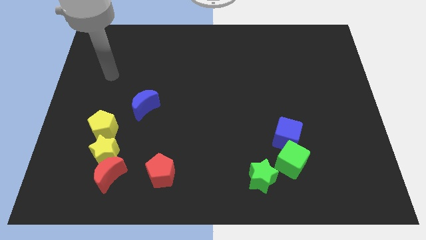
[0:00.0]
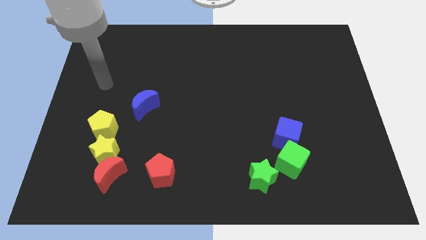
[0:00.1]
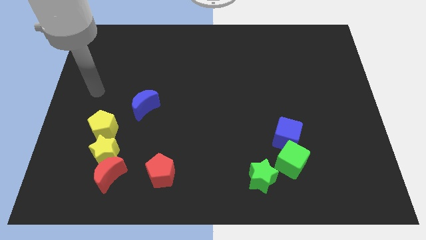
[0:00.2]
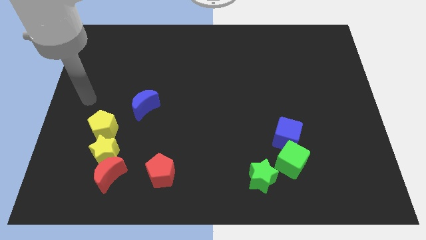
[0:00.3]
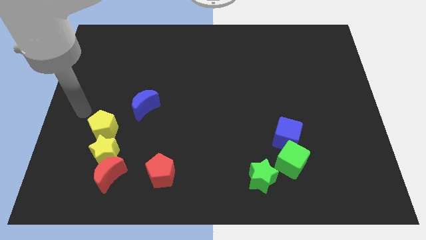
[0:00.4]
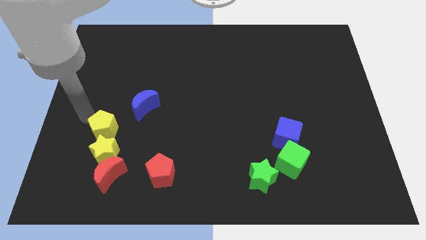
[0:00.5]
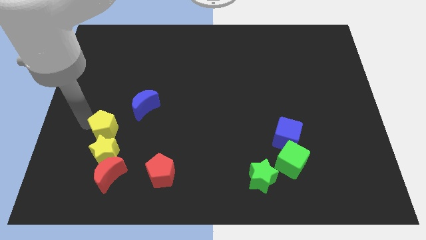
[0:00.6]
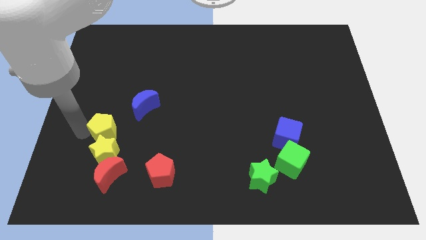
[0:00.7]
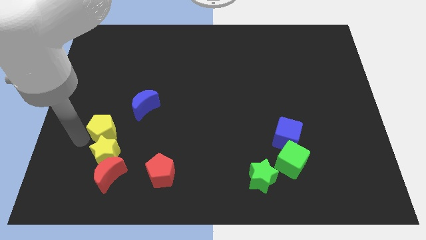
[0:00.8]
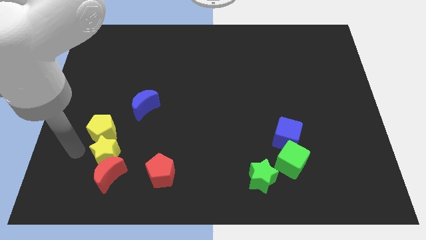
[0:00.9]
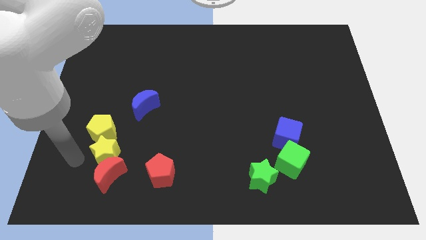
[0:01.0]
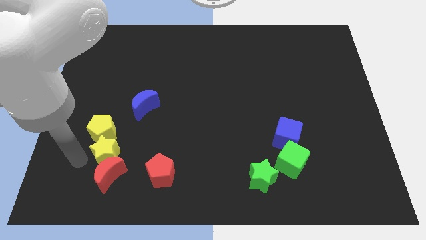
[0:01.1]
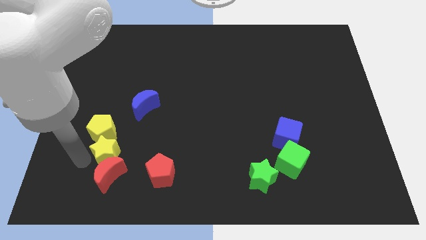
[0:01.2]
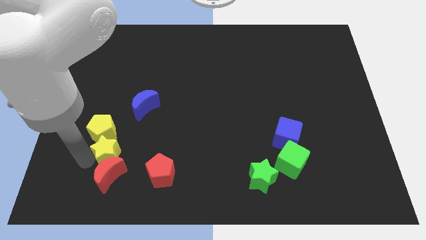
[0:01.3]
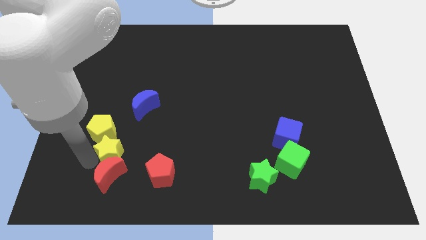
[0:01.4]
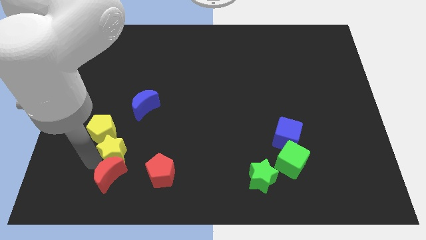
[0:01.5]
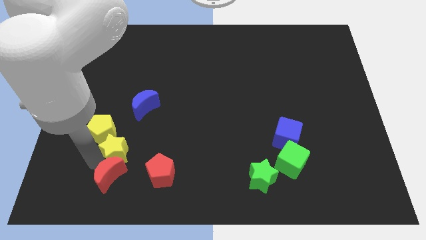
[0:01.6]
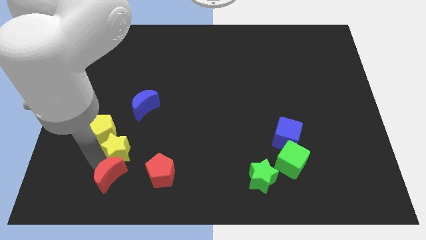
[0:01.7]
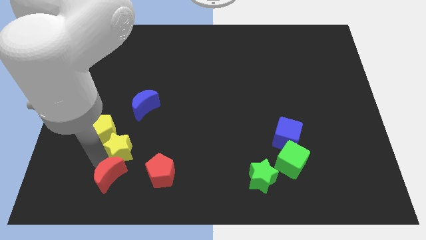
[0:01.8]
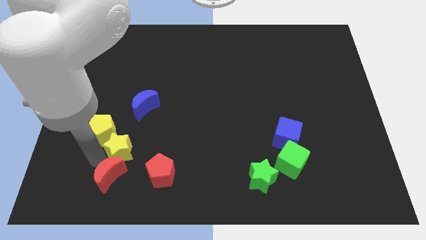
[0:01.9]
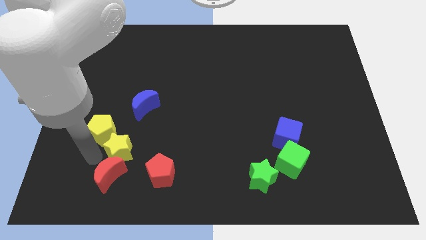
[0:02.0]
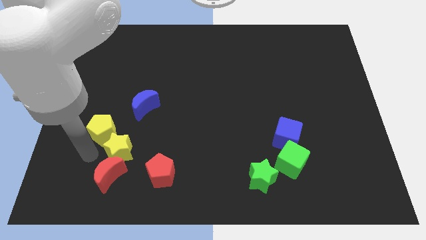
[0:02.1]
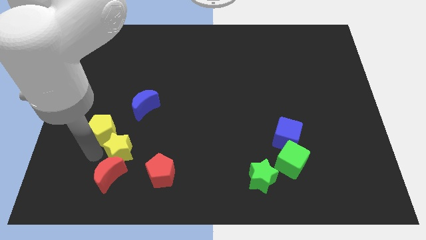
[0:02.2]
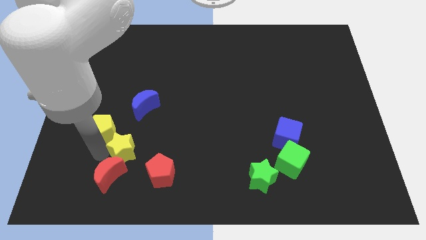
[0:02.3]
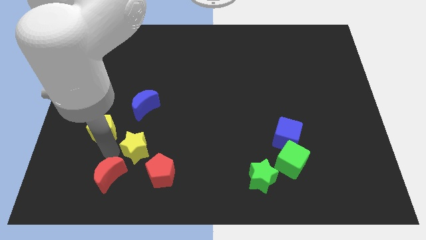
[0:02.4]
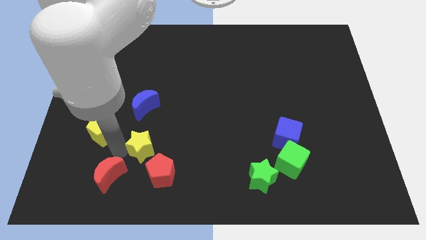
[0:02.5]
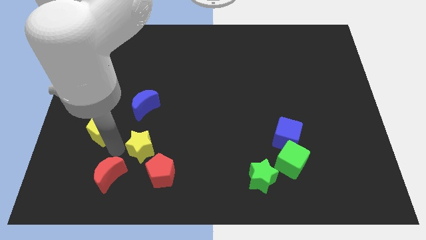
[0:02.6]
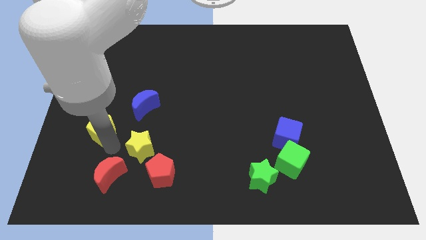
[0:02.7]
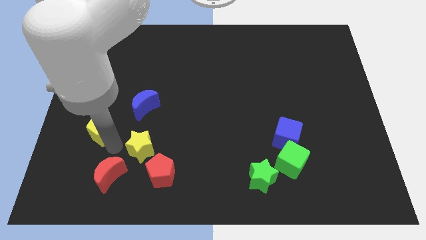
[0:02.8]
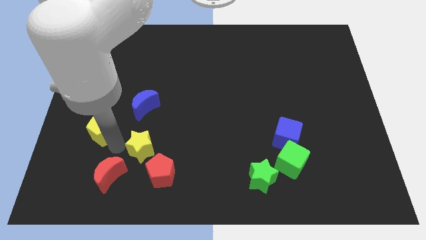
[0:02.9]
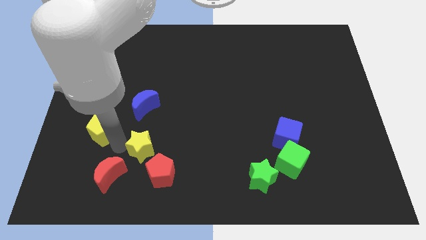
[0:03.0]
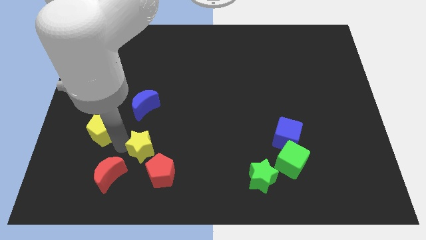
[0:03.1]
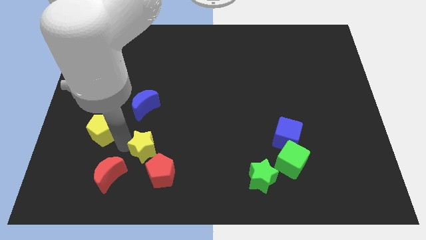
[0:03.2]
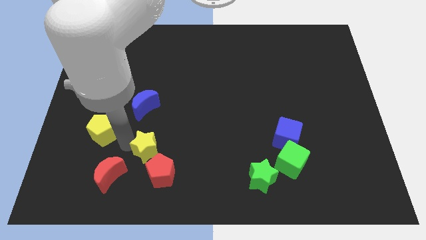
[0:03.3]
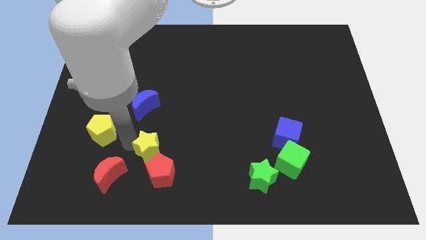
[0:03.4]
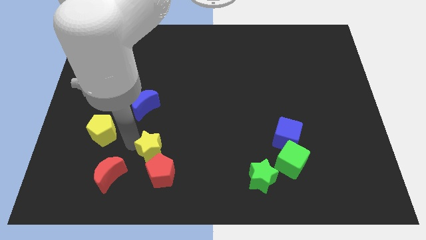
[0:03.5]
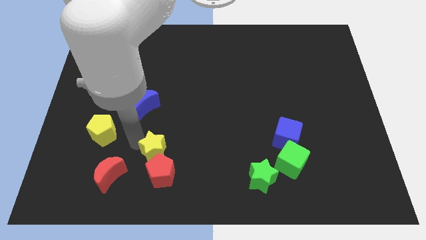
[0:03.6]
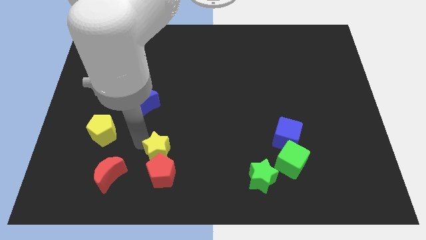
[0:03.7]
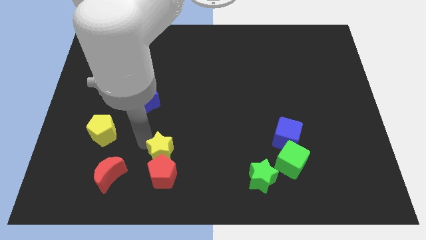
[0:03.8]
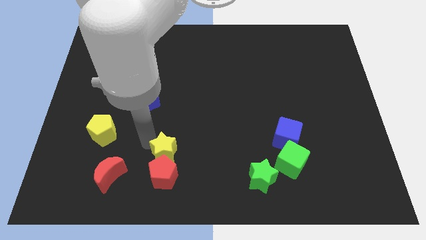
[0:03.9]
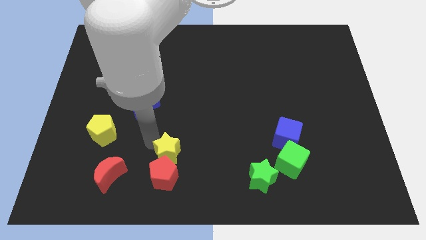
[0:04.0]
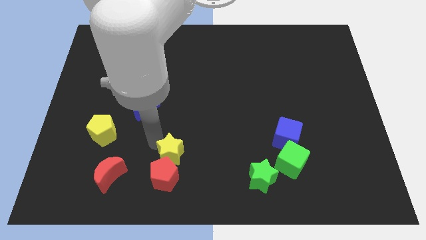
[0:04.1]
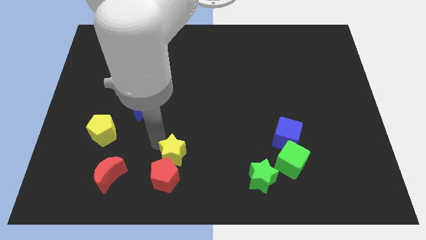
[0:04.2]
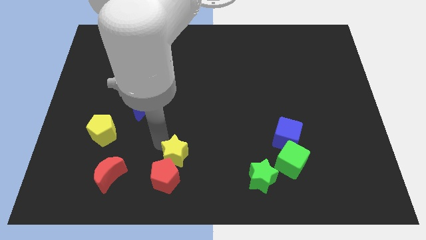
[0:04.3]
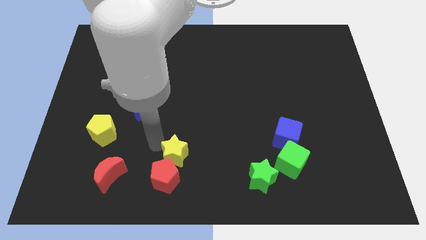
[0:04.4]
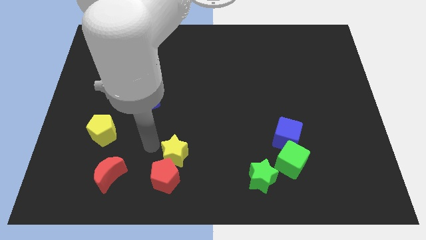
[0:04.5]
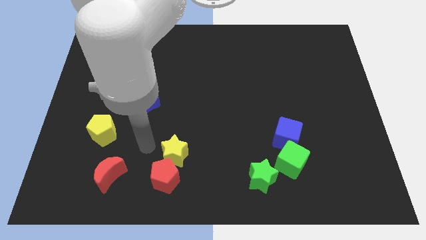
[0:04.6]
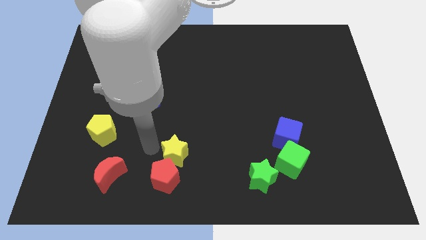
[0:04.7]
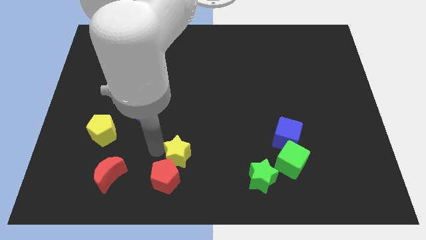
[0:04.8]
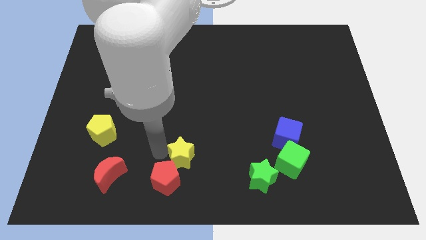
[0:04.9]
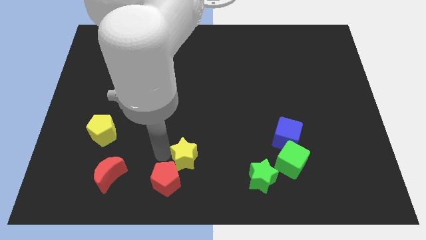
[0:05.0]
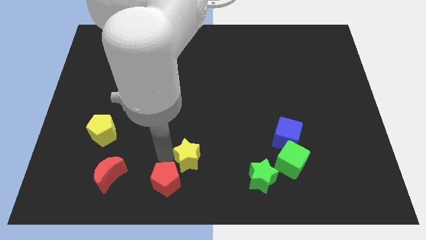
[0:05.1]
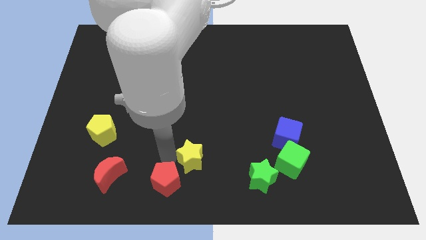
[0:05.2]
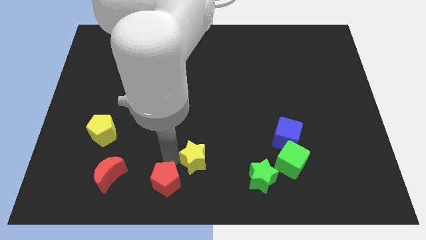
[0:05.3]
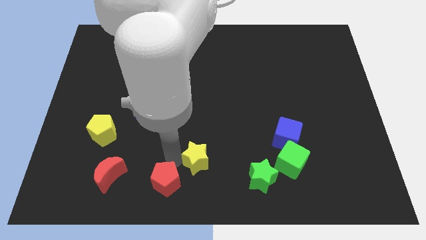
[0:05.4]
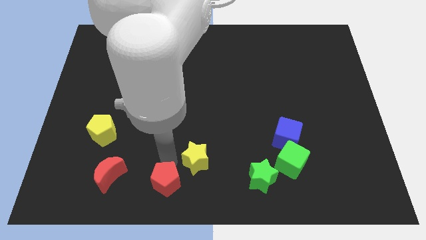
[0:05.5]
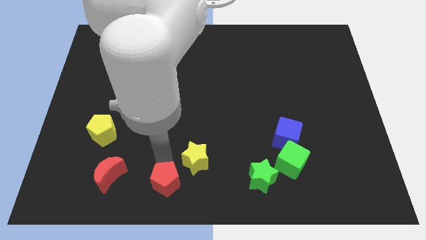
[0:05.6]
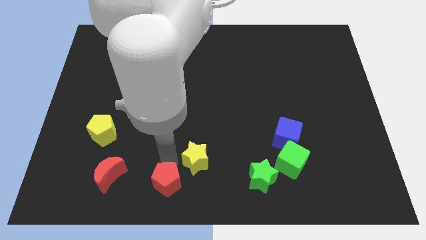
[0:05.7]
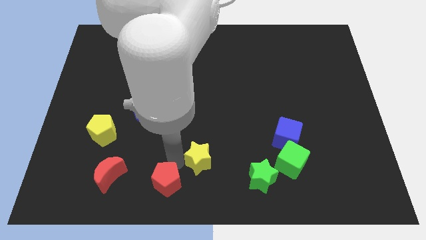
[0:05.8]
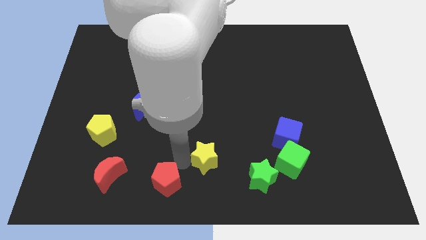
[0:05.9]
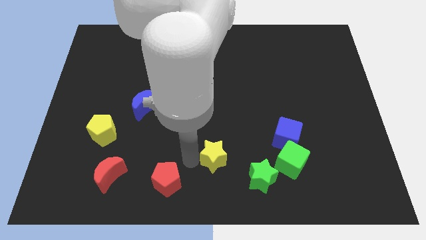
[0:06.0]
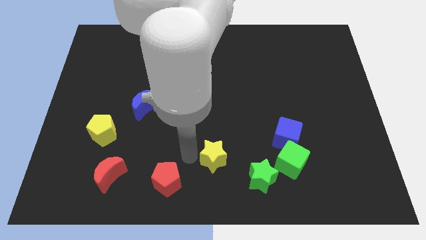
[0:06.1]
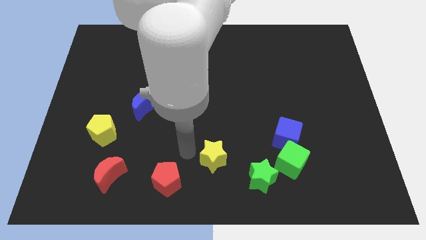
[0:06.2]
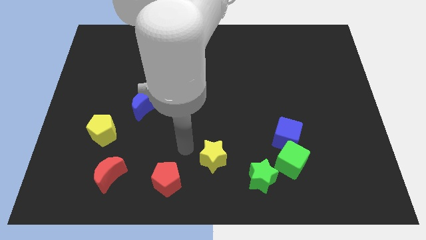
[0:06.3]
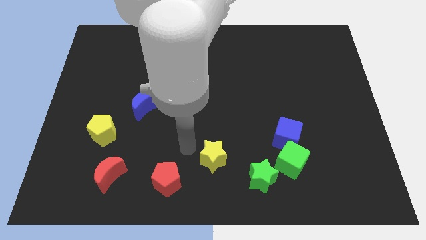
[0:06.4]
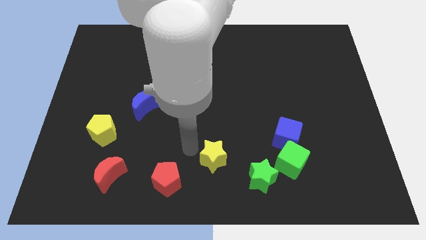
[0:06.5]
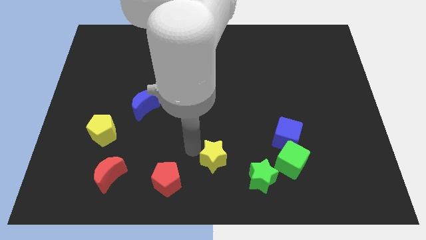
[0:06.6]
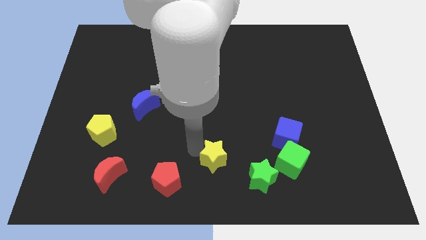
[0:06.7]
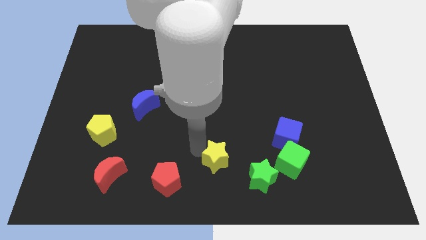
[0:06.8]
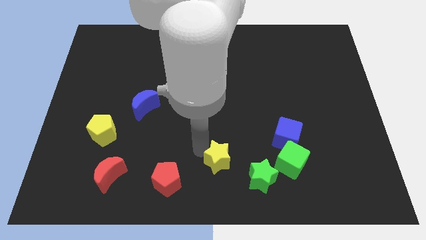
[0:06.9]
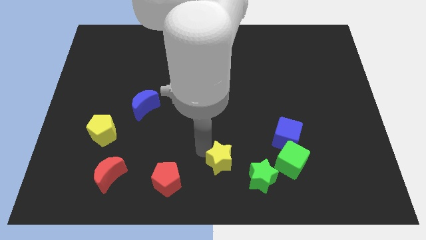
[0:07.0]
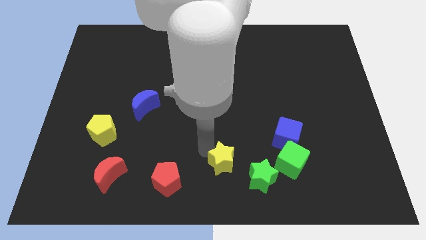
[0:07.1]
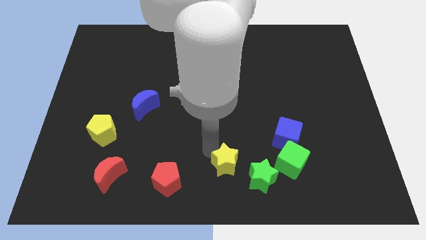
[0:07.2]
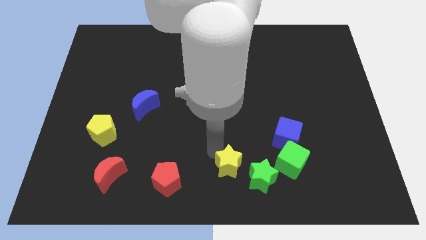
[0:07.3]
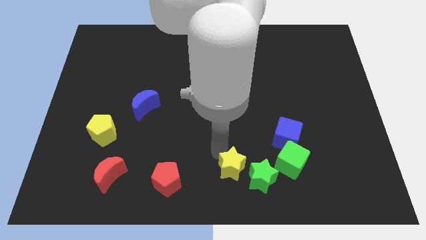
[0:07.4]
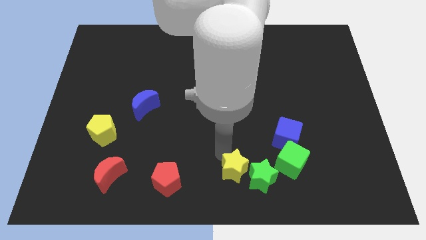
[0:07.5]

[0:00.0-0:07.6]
put the yellow star to the green star
